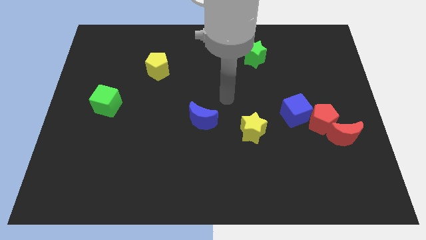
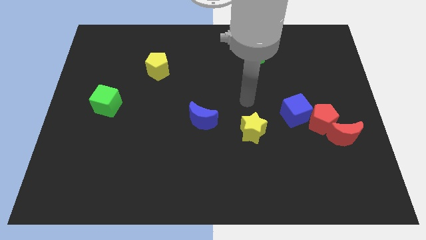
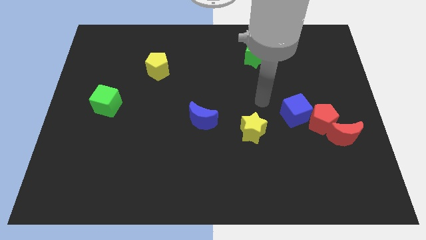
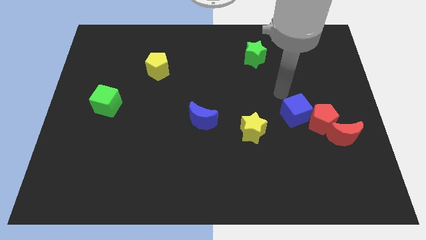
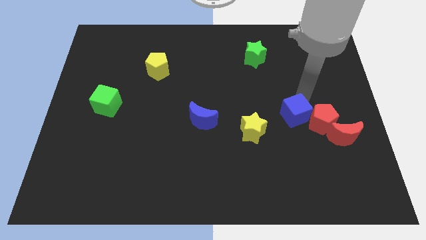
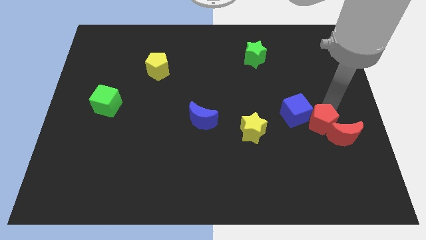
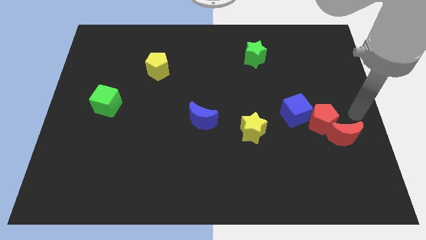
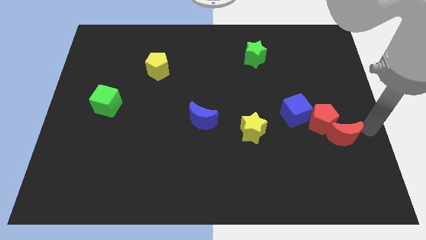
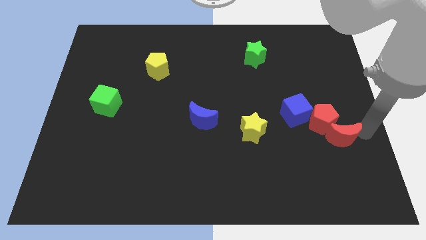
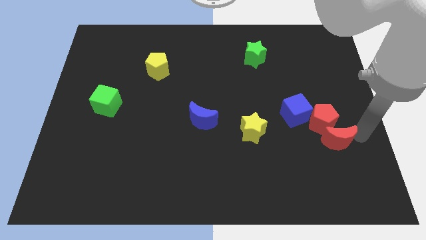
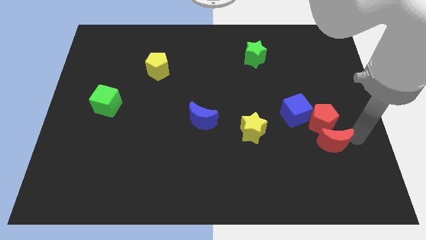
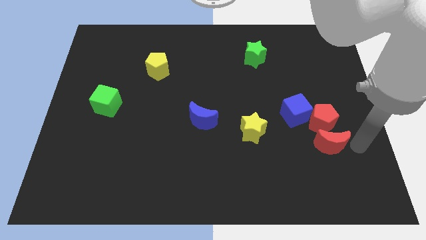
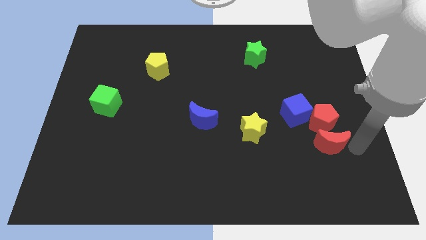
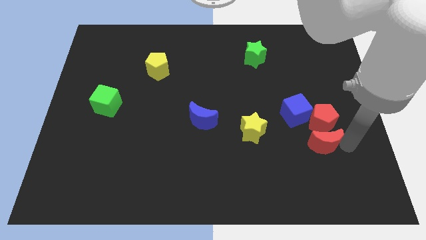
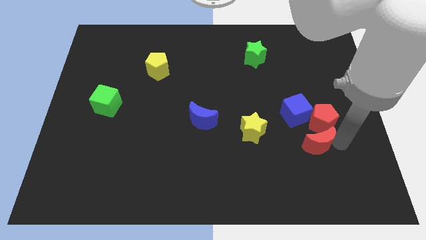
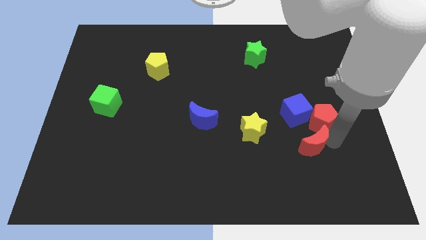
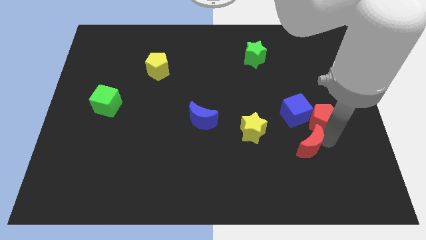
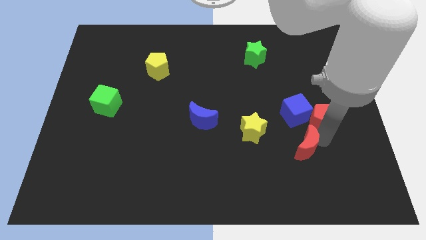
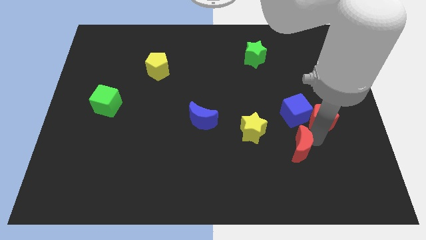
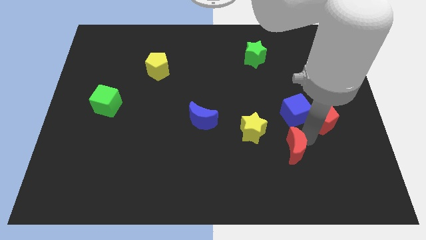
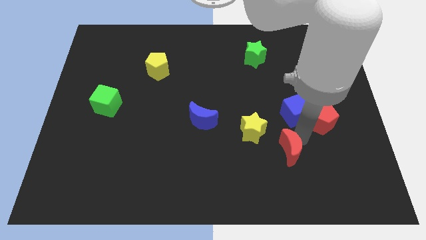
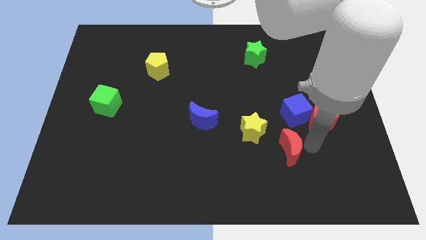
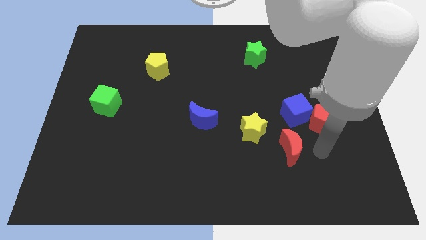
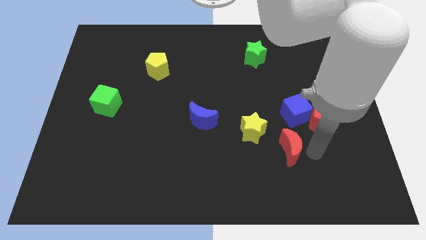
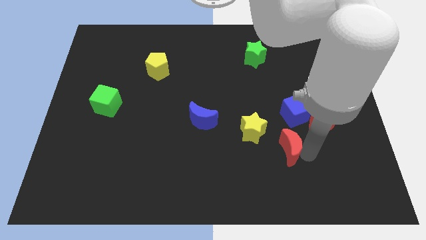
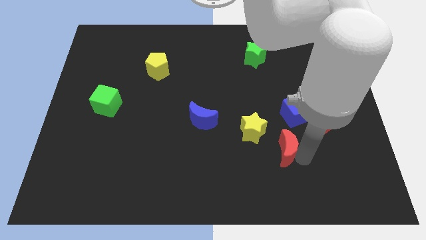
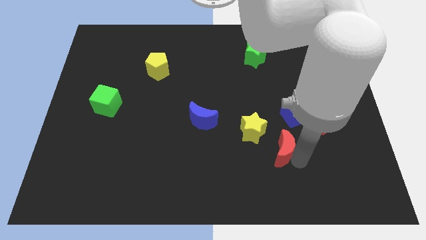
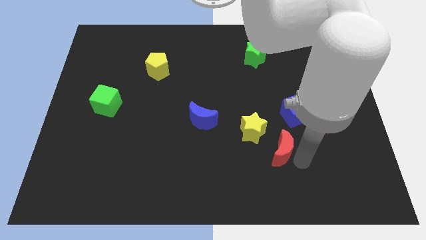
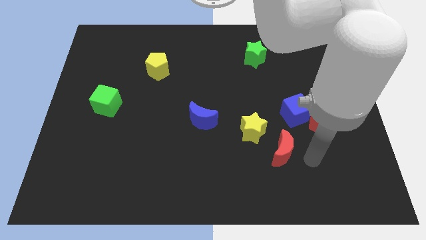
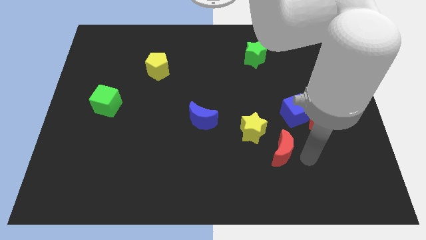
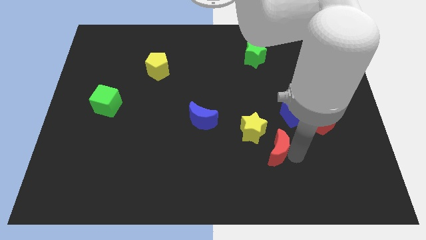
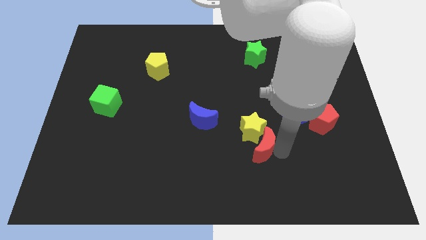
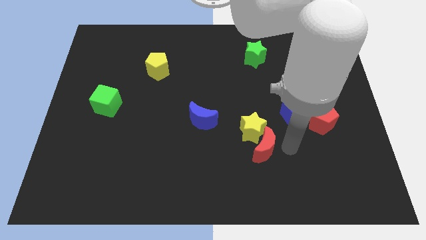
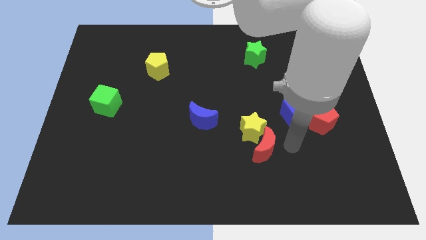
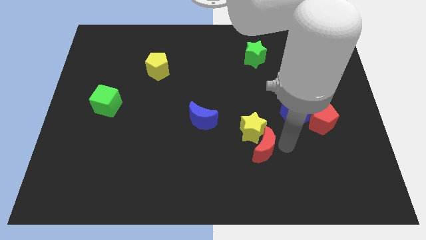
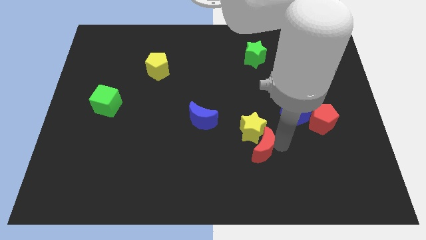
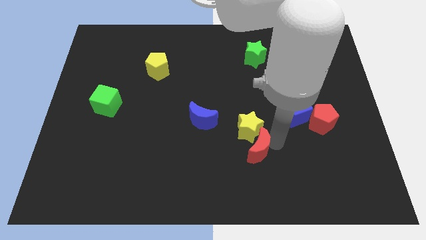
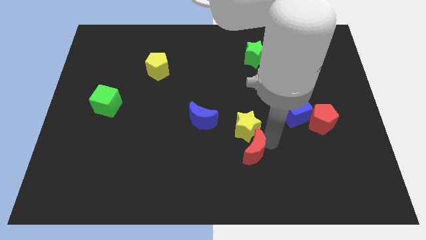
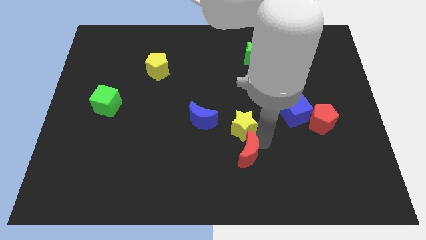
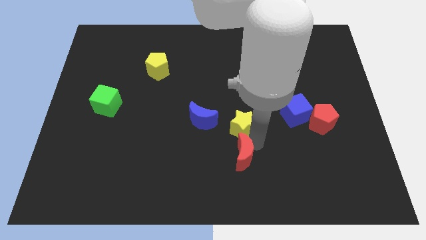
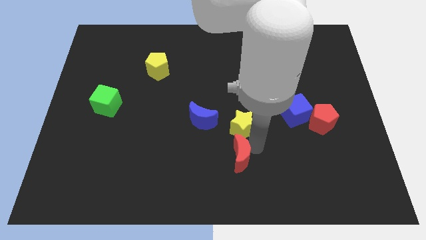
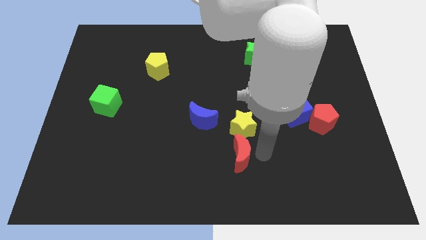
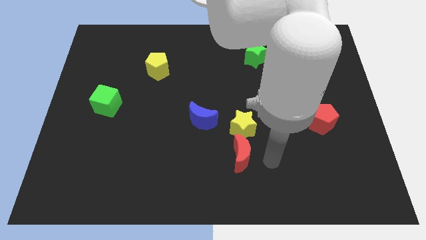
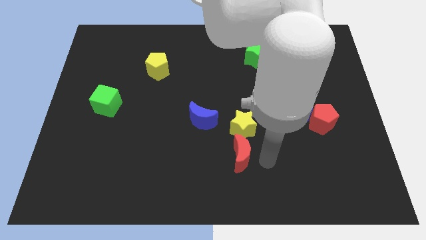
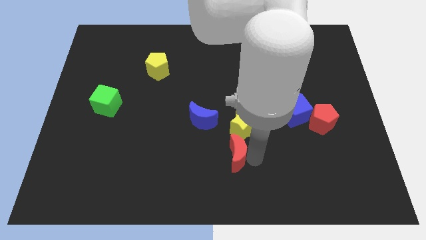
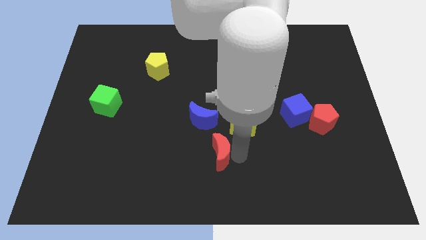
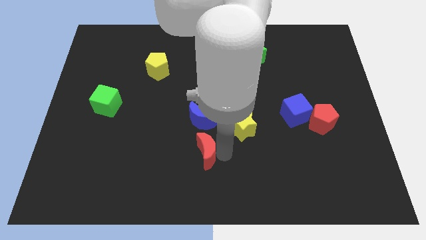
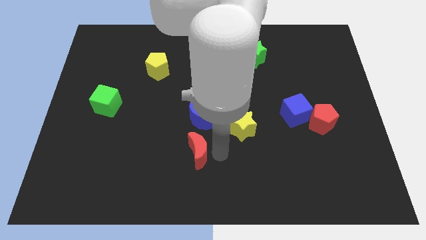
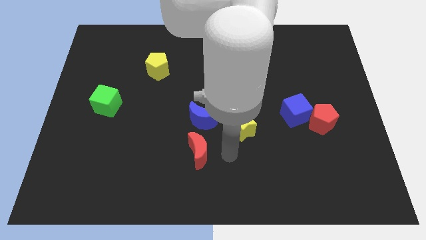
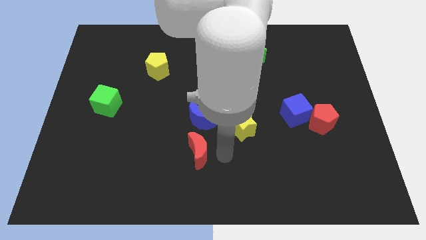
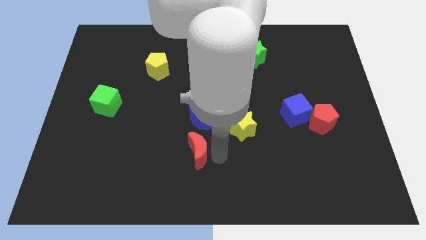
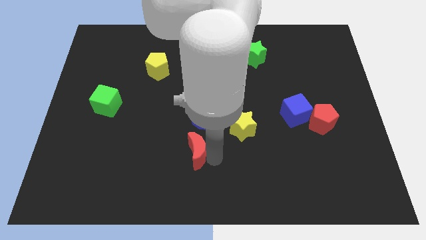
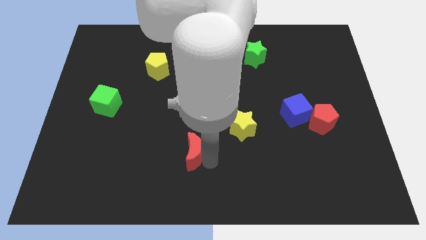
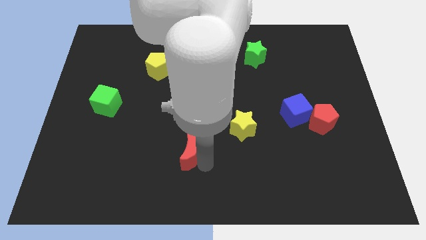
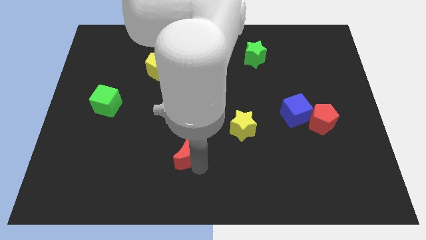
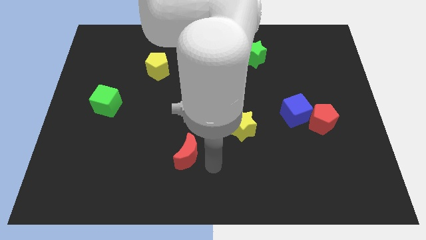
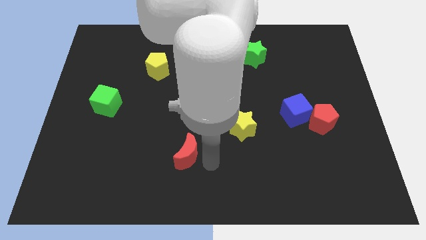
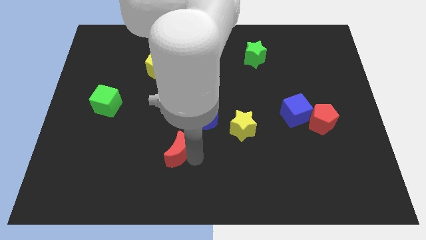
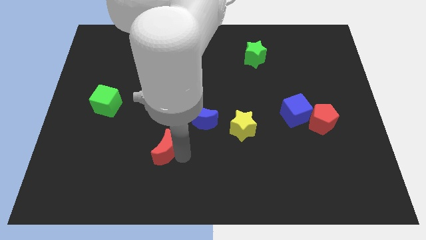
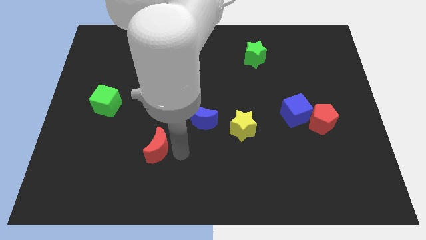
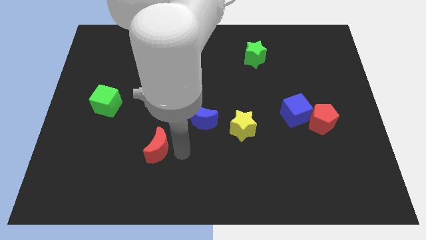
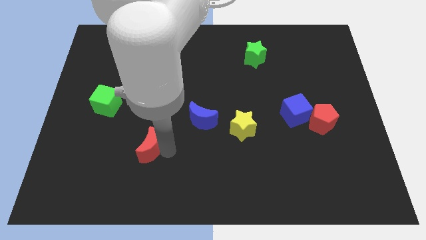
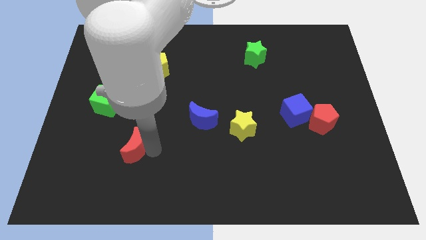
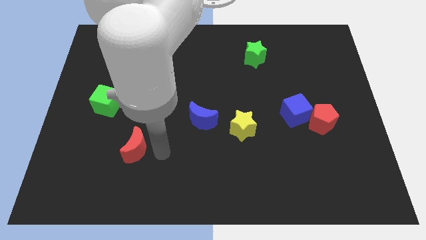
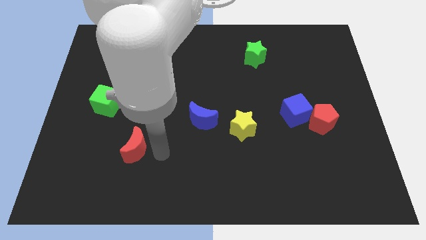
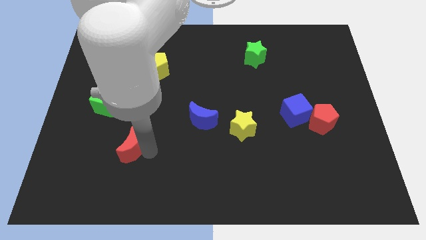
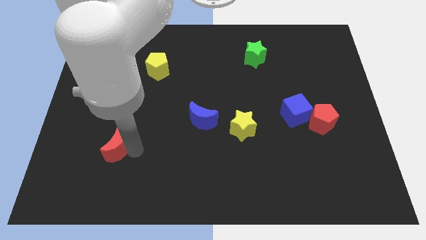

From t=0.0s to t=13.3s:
push the red moon below the green cube
